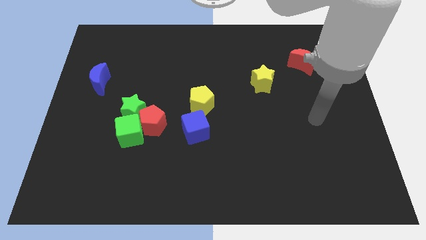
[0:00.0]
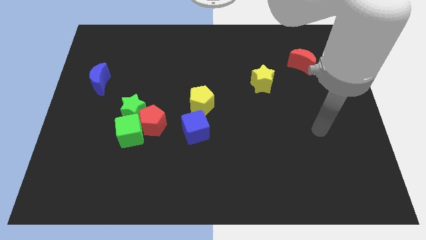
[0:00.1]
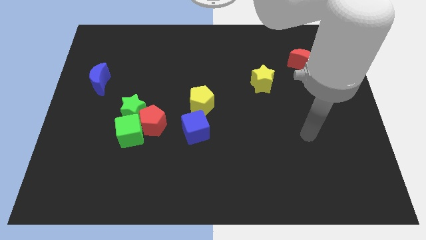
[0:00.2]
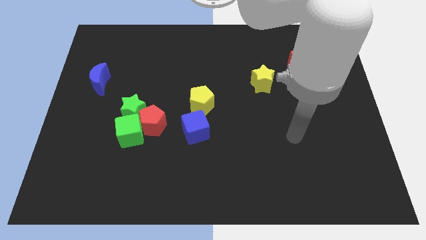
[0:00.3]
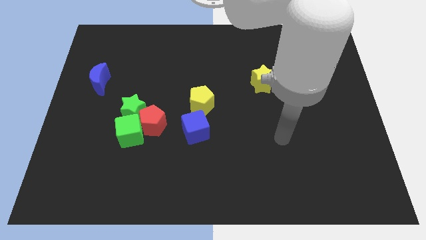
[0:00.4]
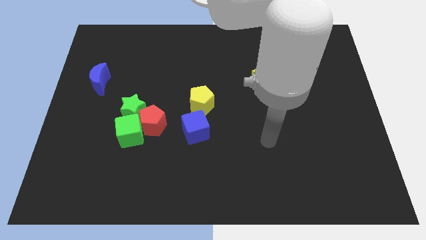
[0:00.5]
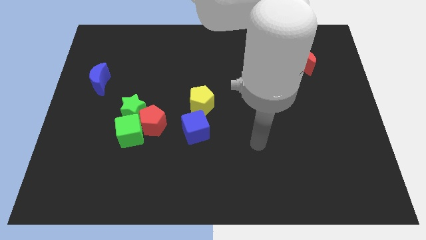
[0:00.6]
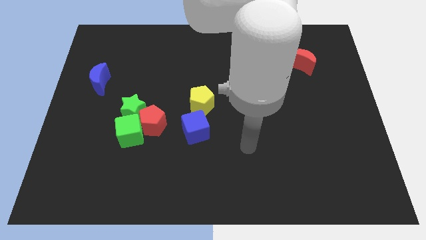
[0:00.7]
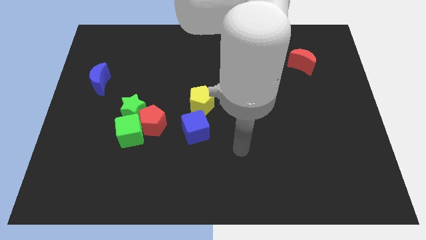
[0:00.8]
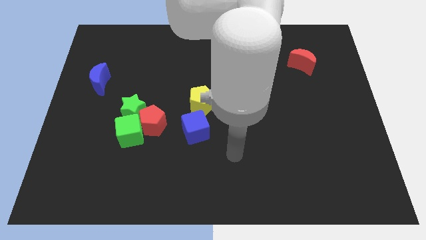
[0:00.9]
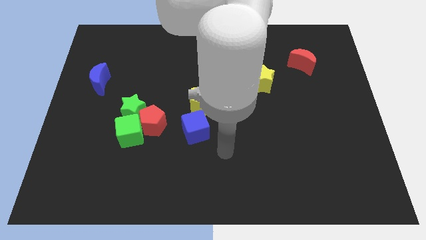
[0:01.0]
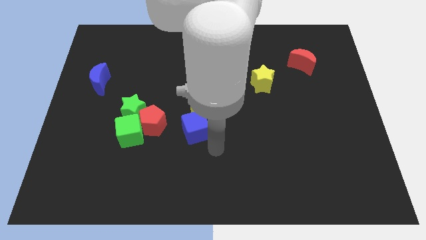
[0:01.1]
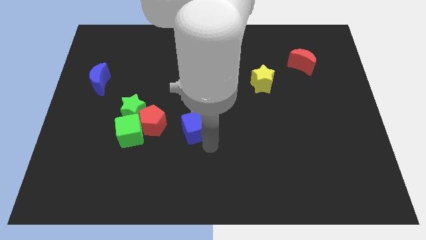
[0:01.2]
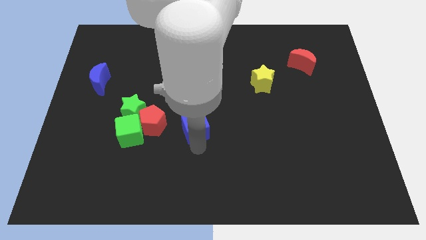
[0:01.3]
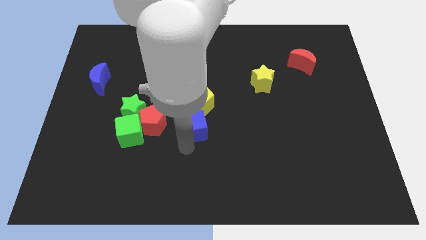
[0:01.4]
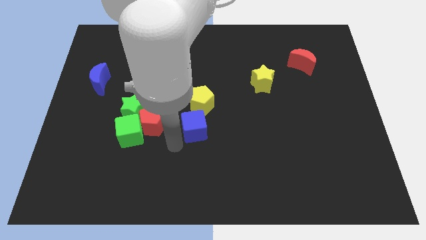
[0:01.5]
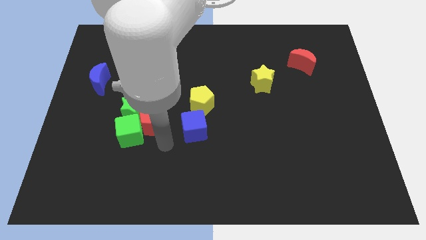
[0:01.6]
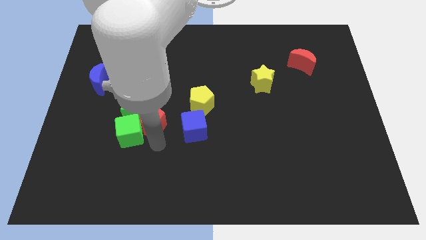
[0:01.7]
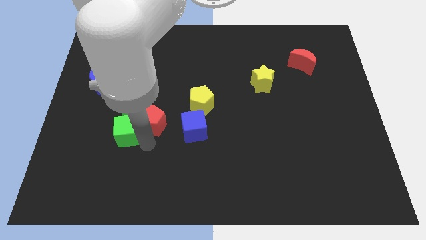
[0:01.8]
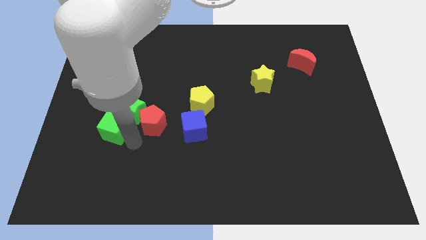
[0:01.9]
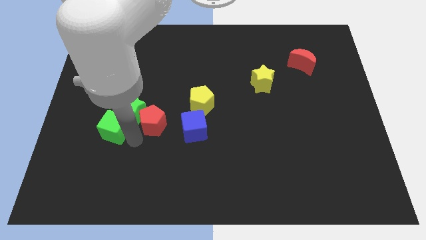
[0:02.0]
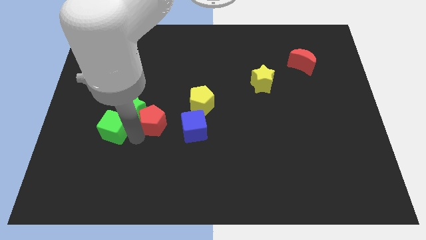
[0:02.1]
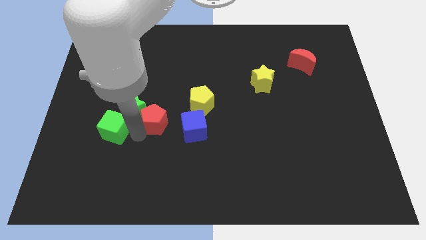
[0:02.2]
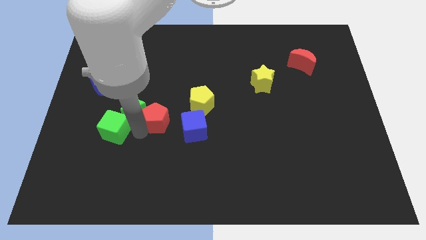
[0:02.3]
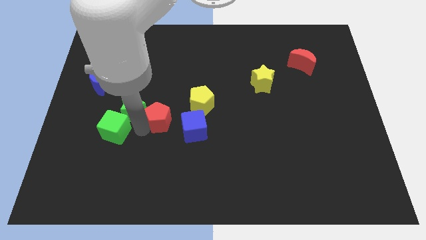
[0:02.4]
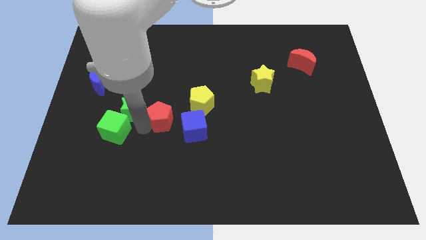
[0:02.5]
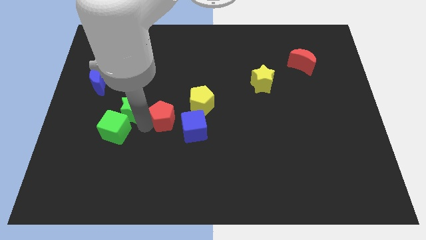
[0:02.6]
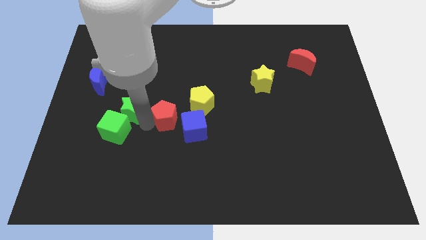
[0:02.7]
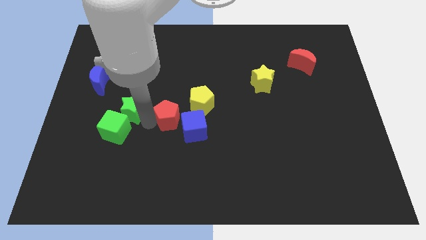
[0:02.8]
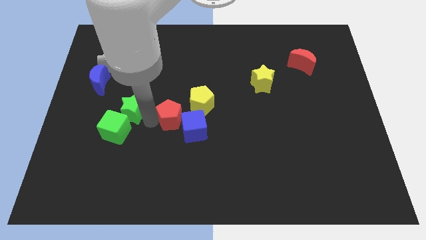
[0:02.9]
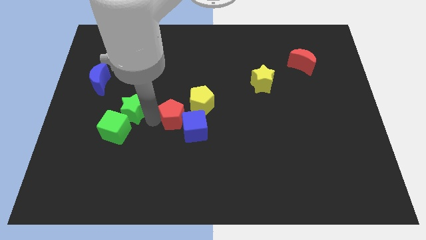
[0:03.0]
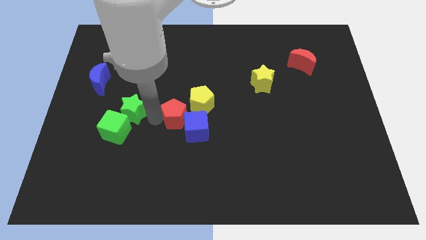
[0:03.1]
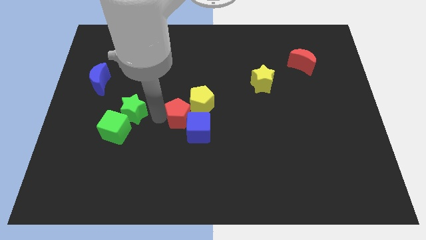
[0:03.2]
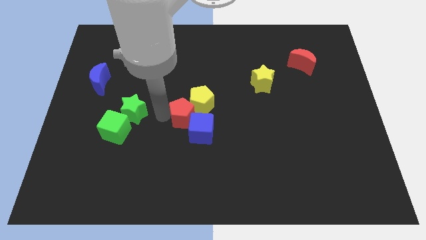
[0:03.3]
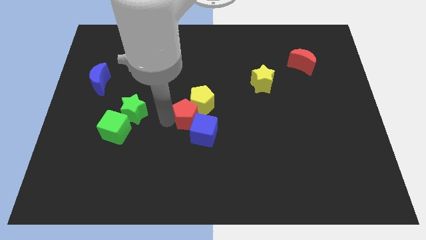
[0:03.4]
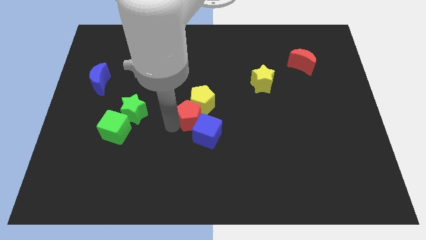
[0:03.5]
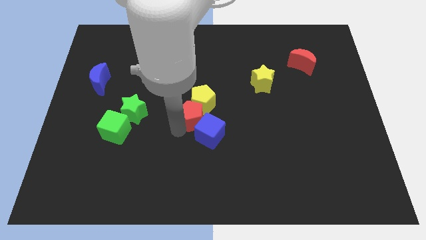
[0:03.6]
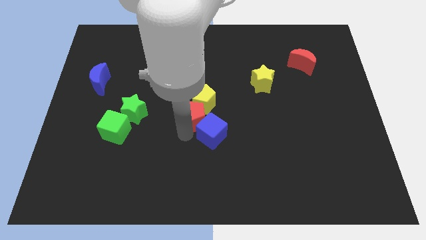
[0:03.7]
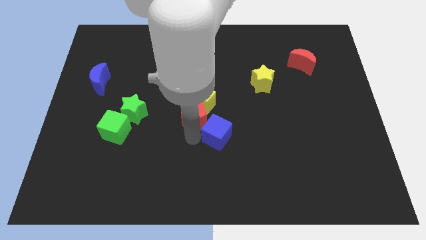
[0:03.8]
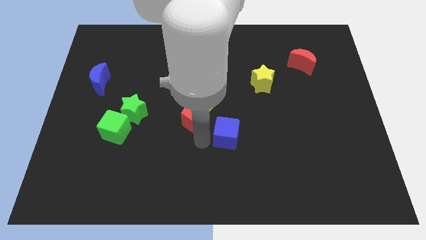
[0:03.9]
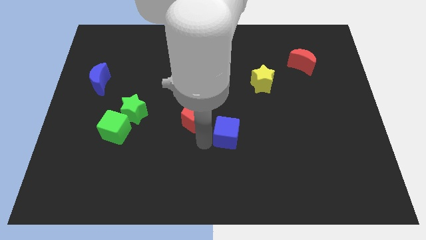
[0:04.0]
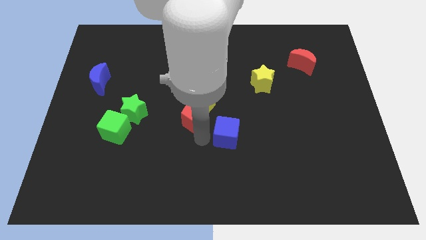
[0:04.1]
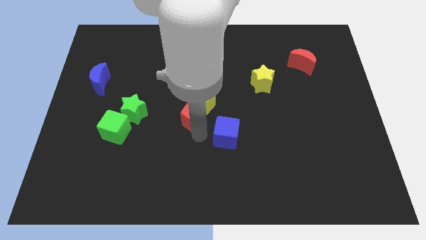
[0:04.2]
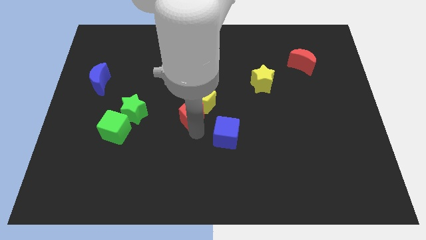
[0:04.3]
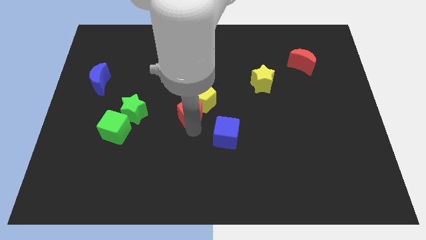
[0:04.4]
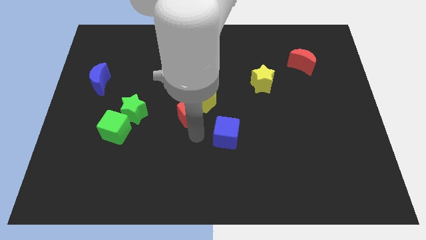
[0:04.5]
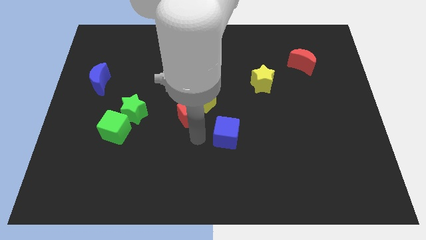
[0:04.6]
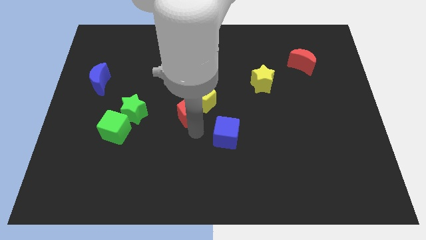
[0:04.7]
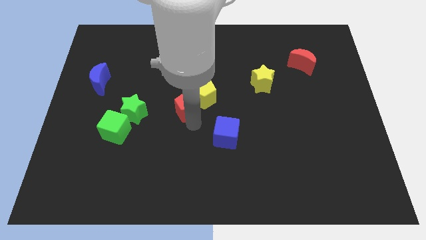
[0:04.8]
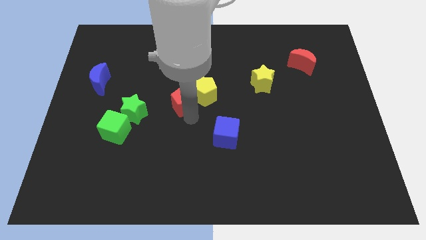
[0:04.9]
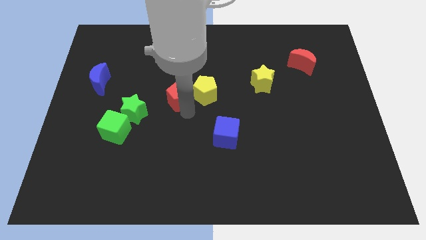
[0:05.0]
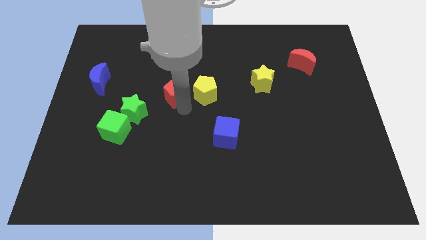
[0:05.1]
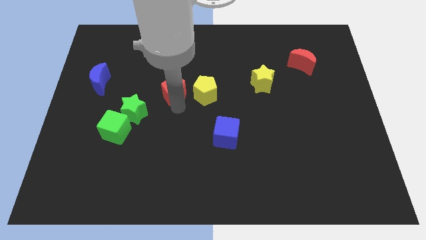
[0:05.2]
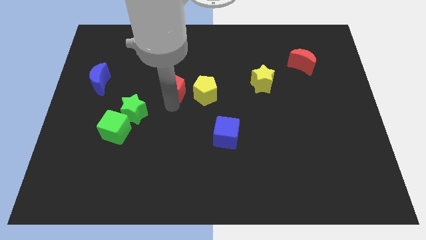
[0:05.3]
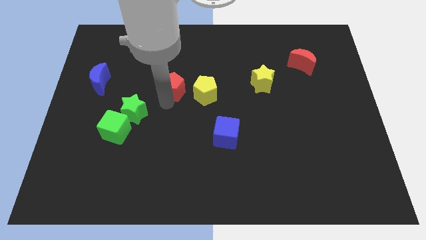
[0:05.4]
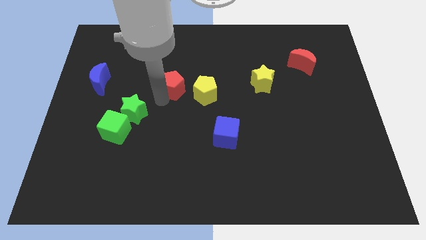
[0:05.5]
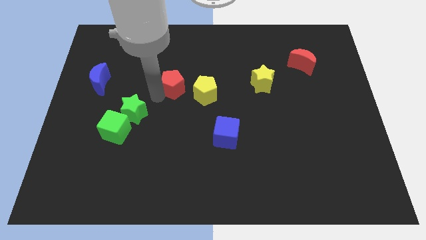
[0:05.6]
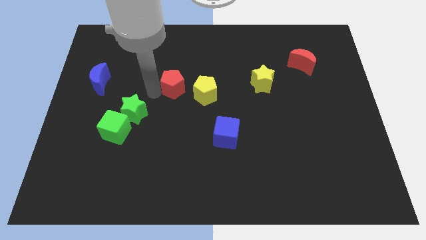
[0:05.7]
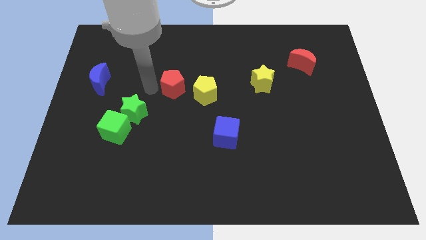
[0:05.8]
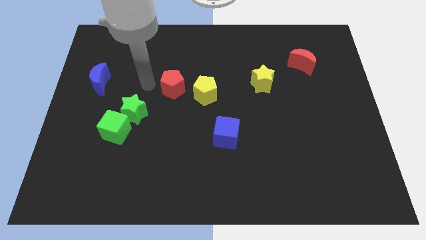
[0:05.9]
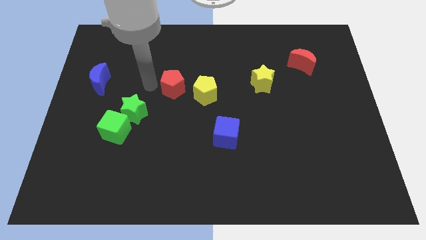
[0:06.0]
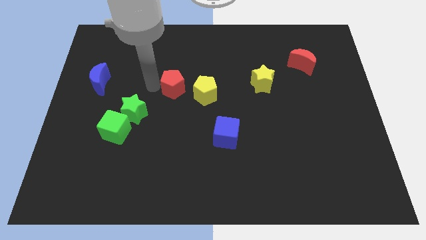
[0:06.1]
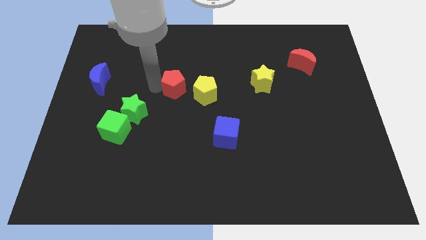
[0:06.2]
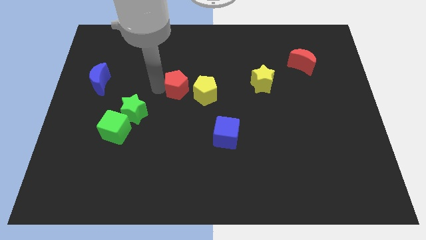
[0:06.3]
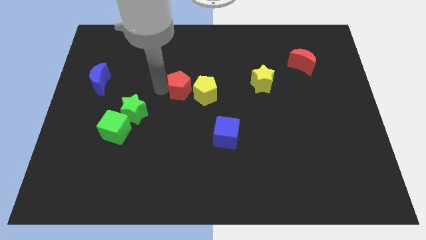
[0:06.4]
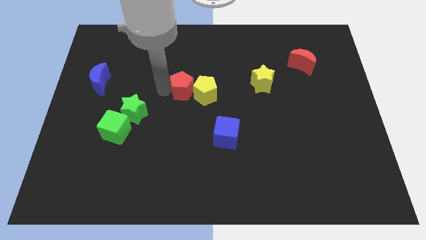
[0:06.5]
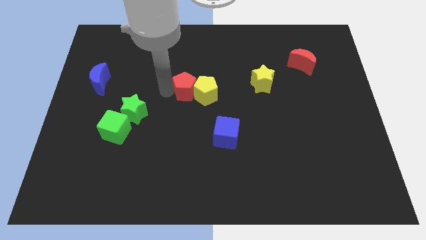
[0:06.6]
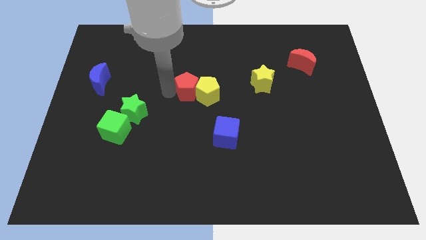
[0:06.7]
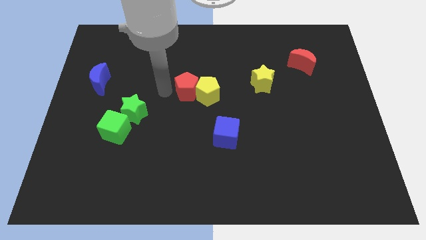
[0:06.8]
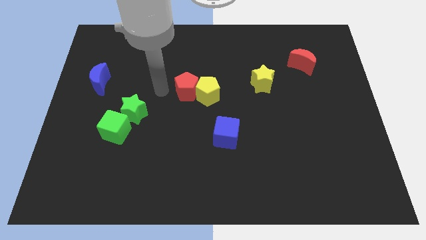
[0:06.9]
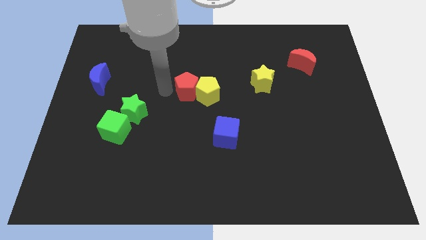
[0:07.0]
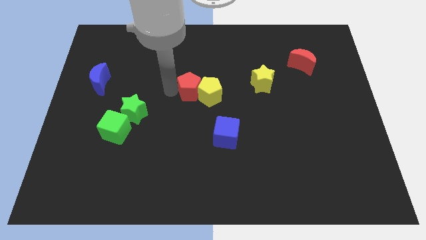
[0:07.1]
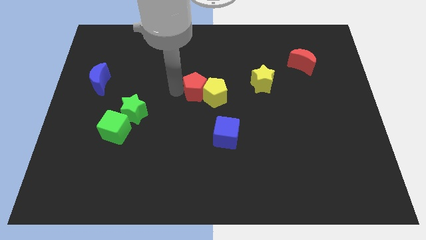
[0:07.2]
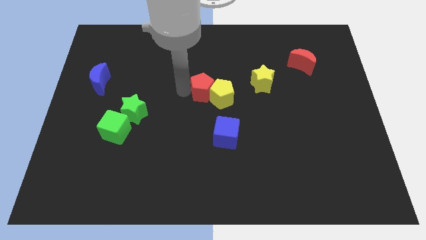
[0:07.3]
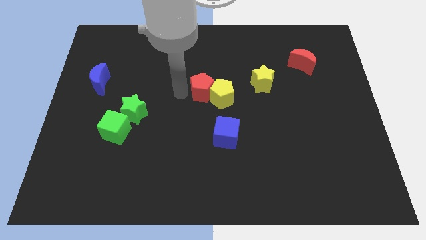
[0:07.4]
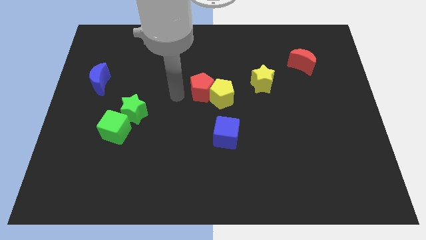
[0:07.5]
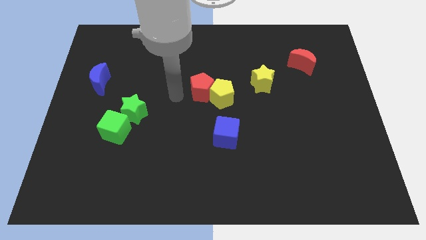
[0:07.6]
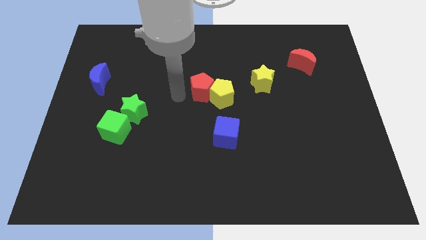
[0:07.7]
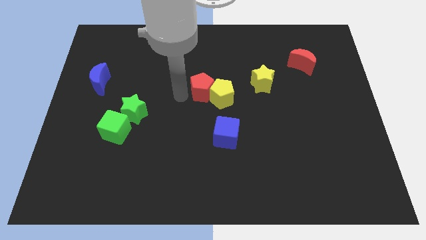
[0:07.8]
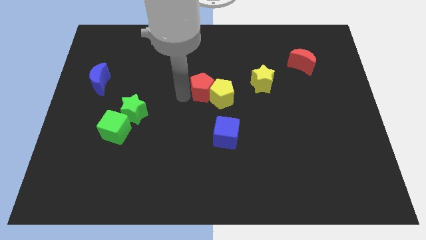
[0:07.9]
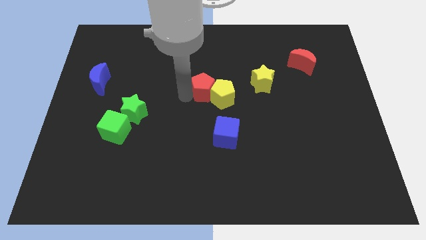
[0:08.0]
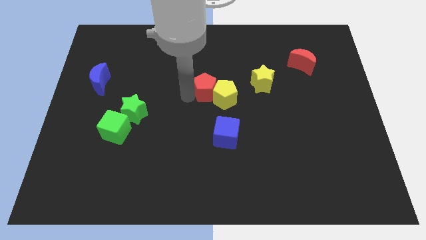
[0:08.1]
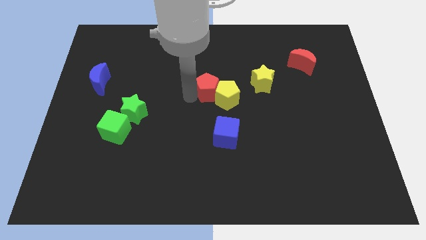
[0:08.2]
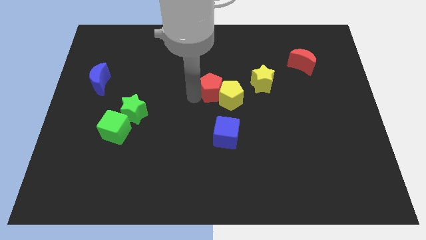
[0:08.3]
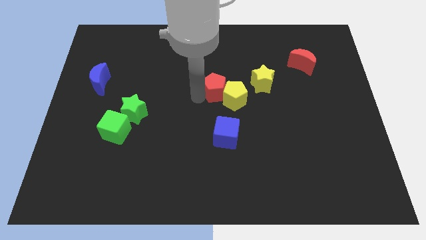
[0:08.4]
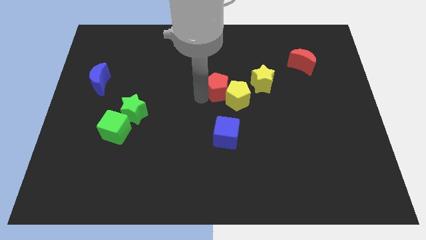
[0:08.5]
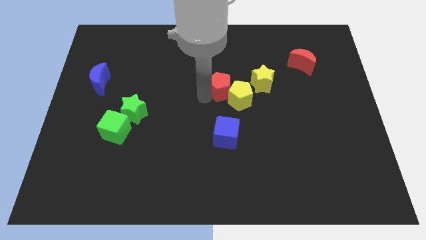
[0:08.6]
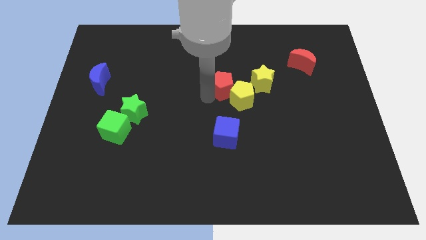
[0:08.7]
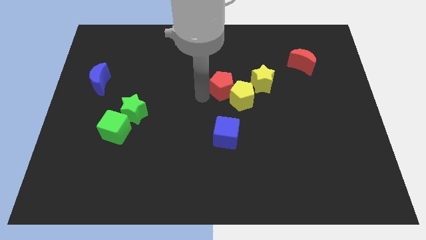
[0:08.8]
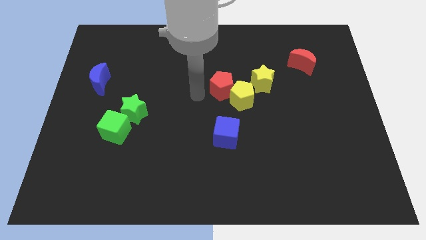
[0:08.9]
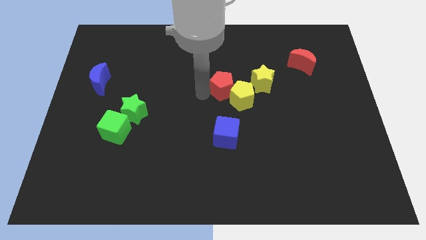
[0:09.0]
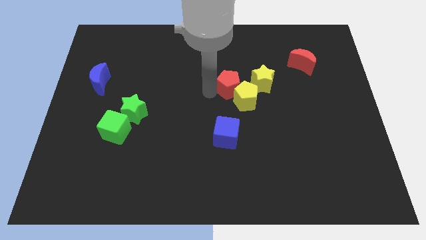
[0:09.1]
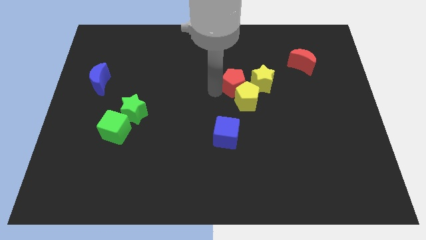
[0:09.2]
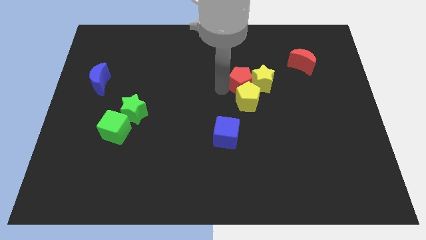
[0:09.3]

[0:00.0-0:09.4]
push the red pentagon towards the yellow star
